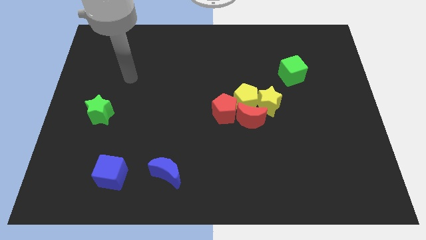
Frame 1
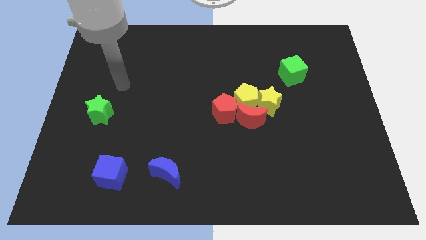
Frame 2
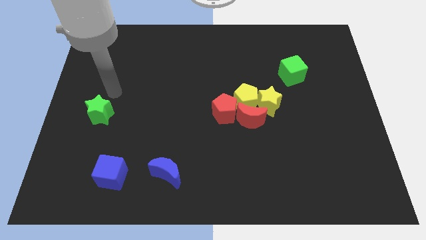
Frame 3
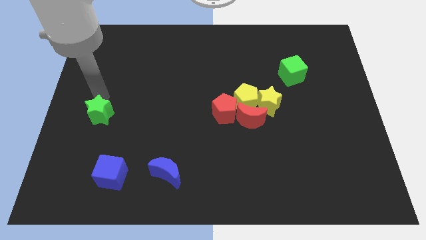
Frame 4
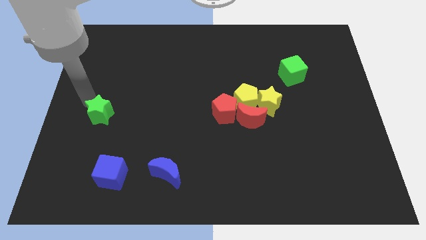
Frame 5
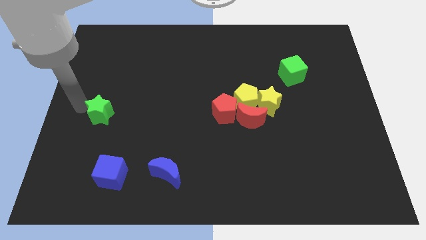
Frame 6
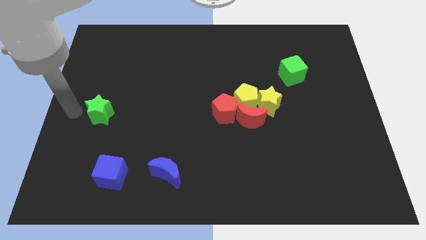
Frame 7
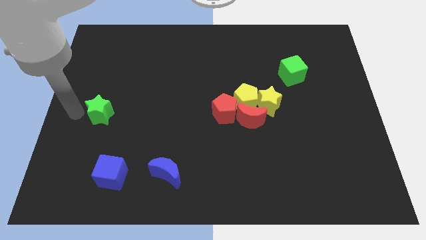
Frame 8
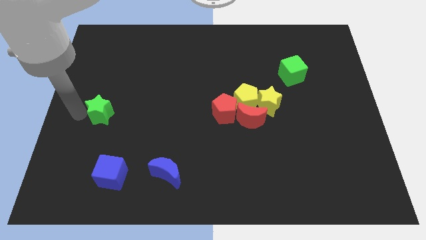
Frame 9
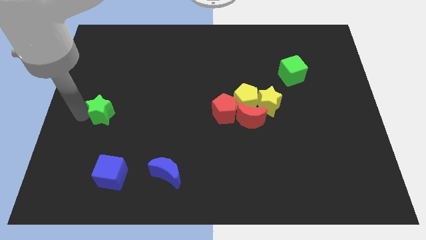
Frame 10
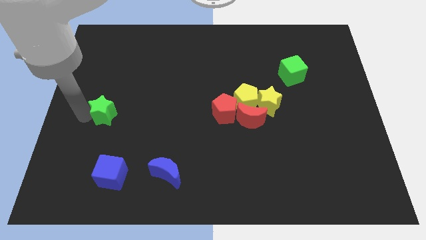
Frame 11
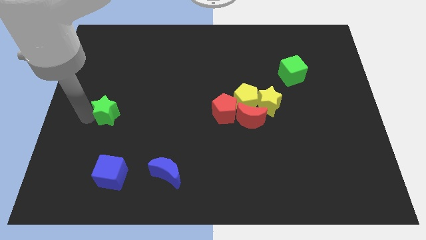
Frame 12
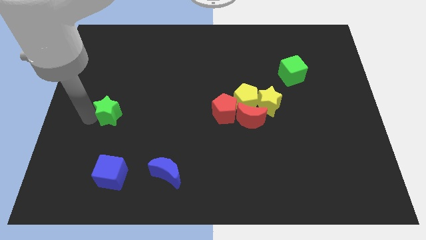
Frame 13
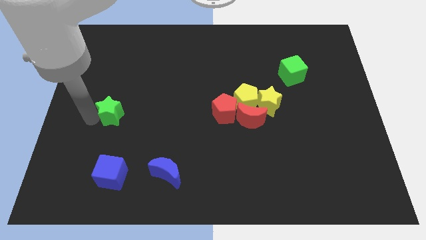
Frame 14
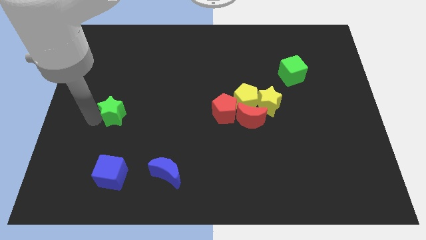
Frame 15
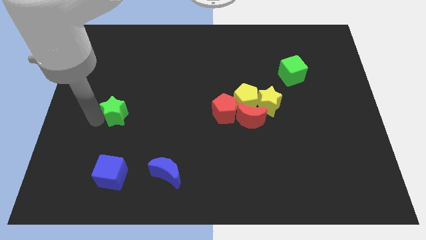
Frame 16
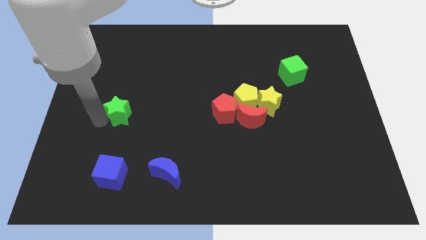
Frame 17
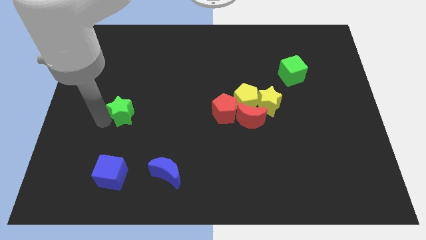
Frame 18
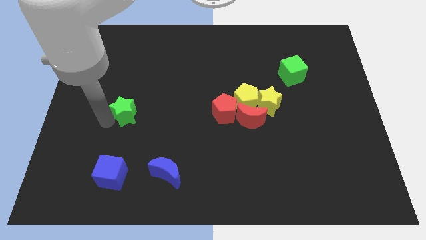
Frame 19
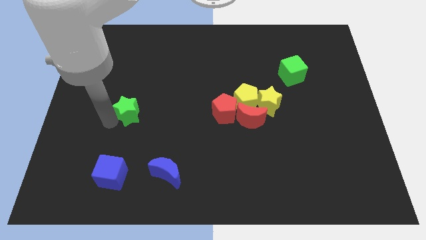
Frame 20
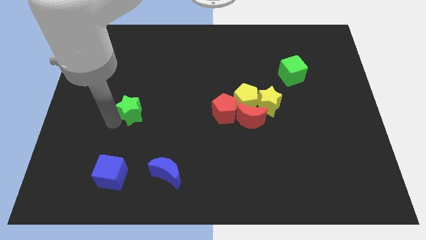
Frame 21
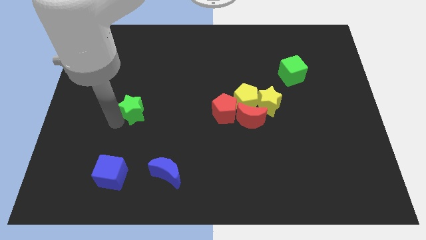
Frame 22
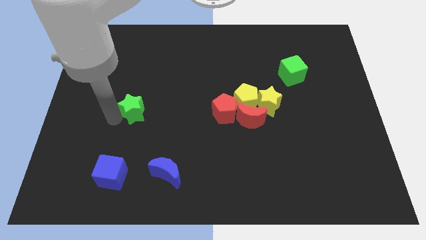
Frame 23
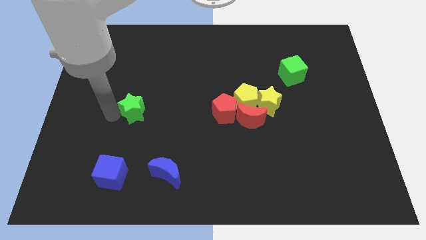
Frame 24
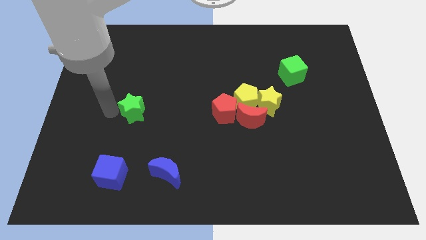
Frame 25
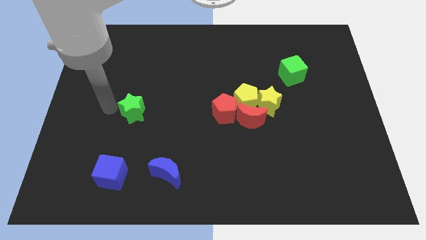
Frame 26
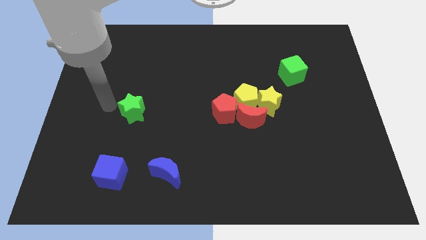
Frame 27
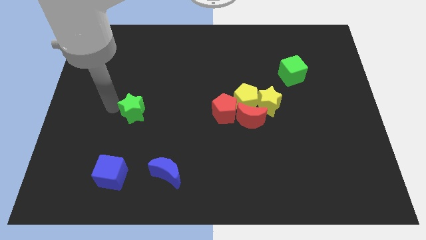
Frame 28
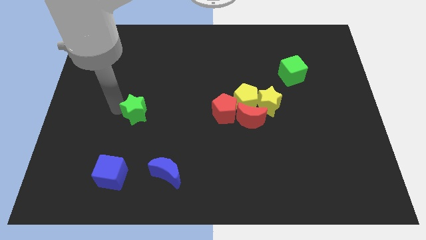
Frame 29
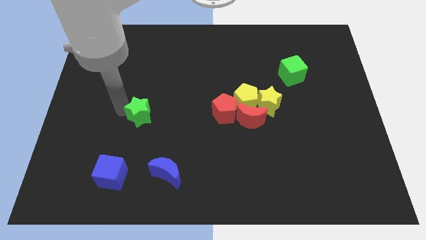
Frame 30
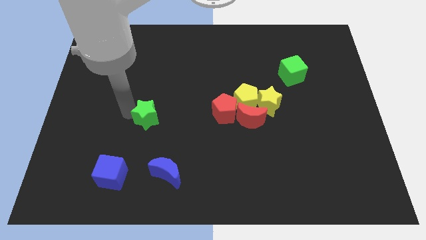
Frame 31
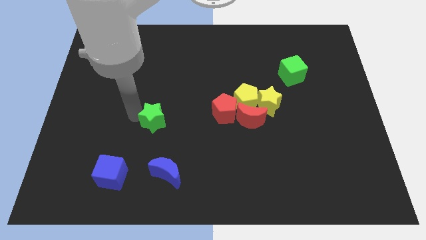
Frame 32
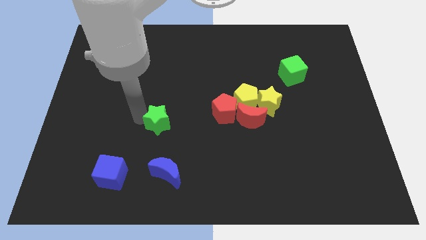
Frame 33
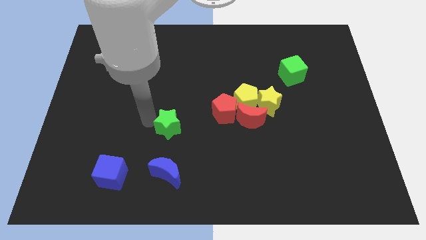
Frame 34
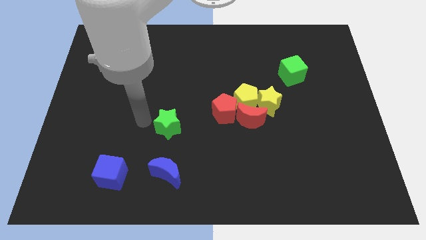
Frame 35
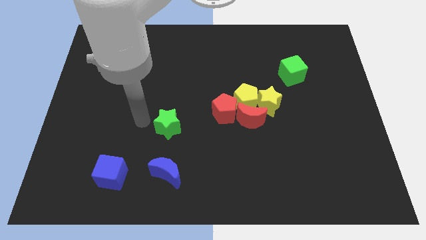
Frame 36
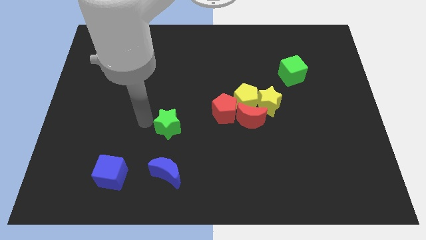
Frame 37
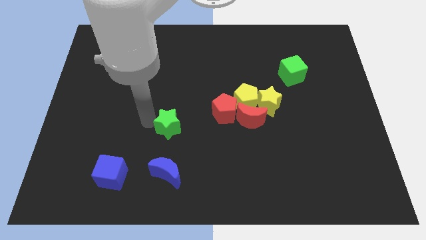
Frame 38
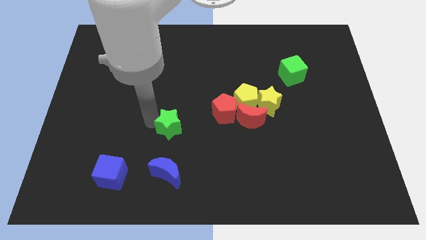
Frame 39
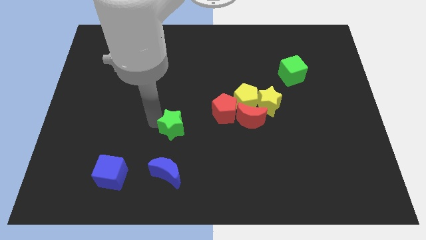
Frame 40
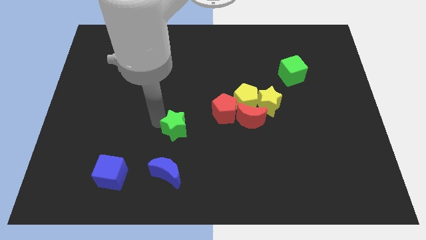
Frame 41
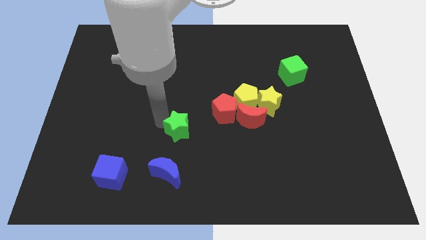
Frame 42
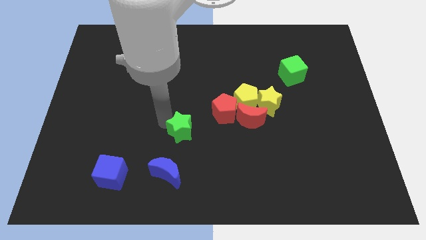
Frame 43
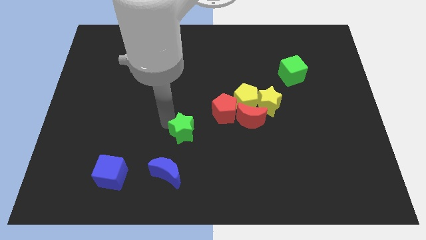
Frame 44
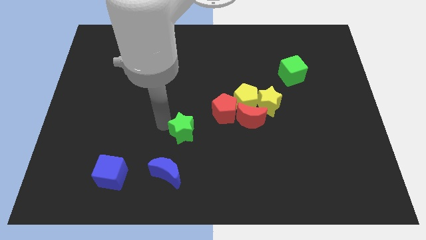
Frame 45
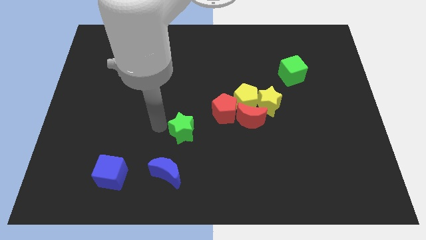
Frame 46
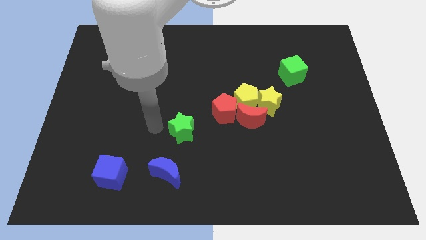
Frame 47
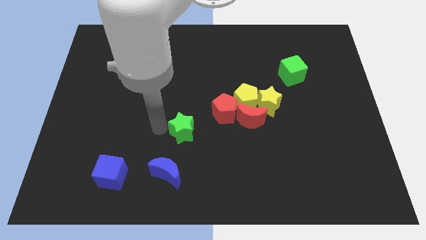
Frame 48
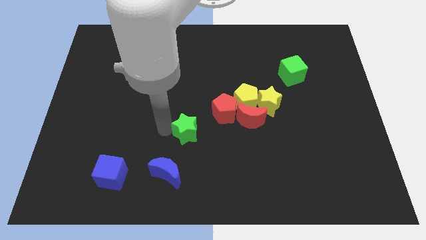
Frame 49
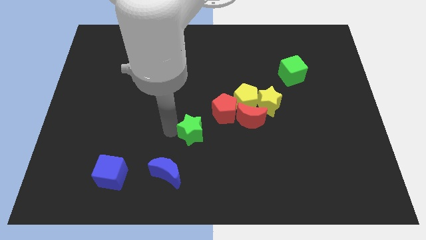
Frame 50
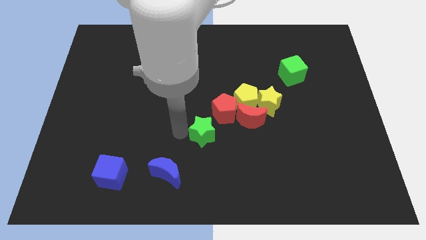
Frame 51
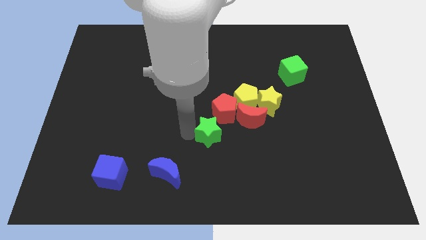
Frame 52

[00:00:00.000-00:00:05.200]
put the green star diagonally down and to the left of the red moon

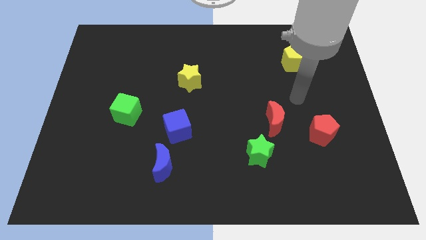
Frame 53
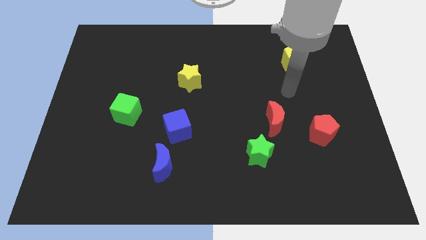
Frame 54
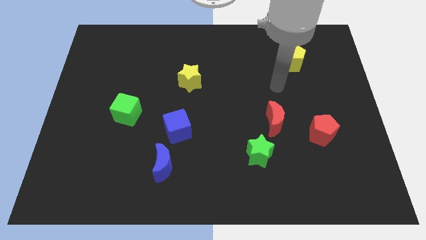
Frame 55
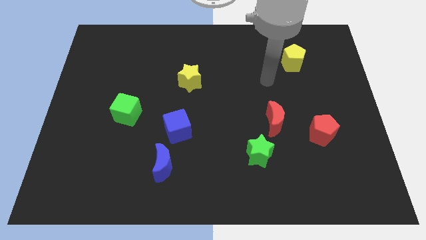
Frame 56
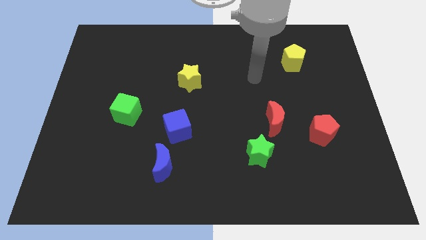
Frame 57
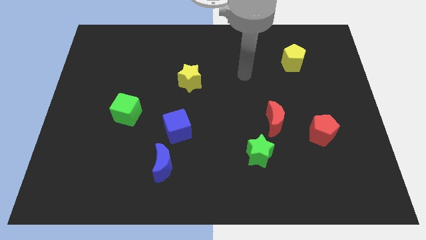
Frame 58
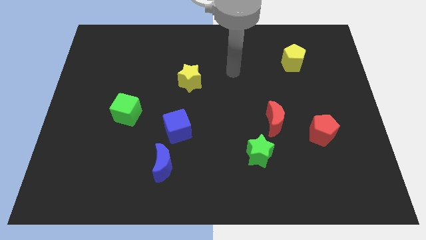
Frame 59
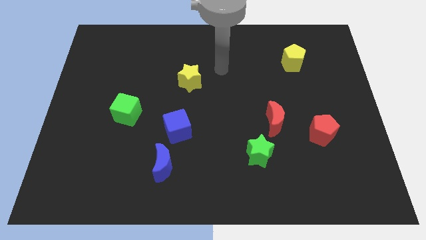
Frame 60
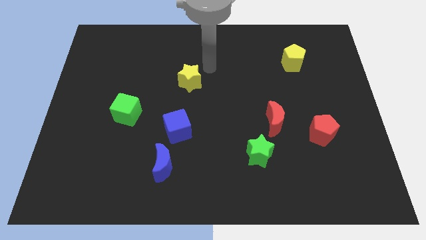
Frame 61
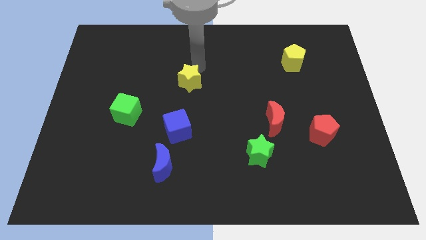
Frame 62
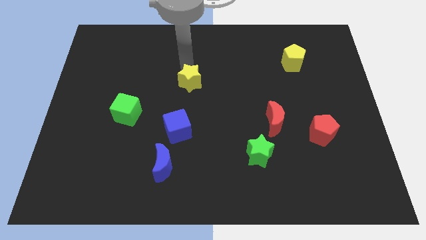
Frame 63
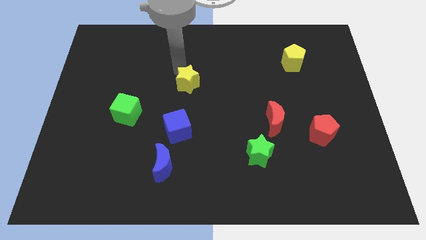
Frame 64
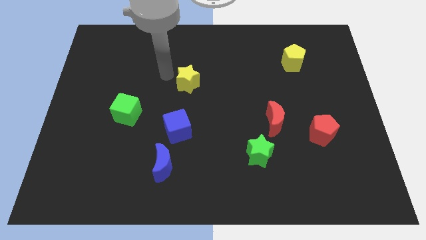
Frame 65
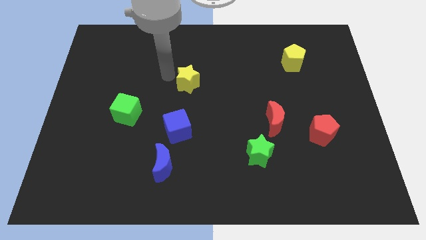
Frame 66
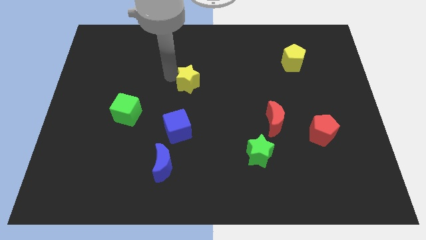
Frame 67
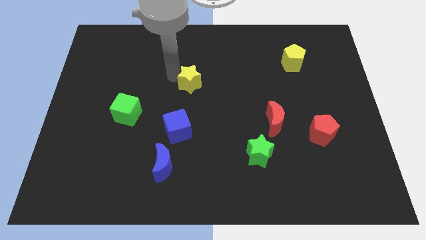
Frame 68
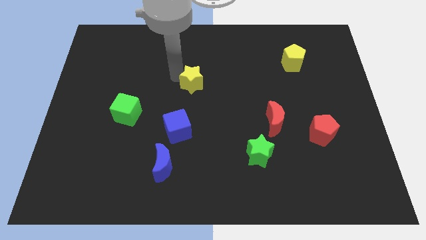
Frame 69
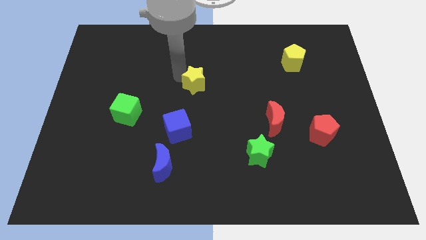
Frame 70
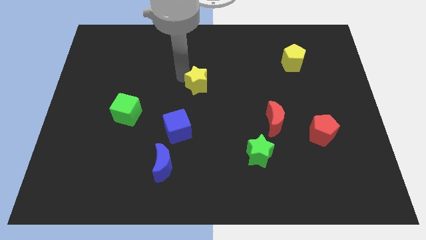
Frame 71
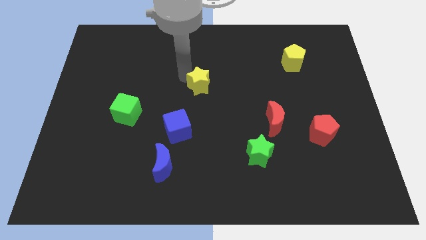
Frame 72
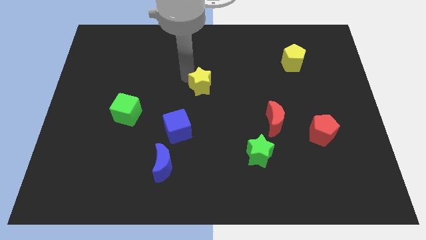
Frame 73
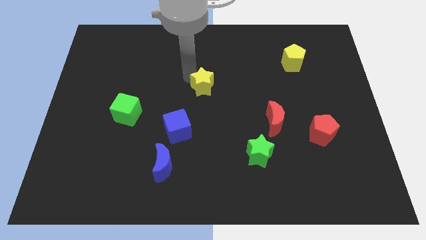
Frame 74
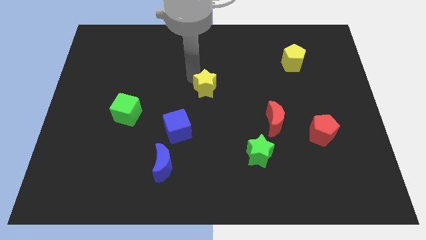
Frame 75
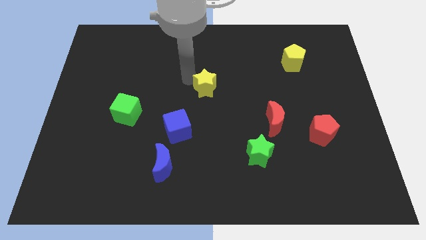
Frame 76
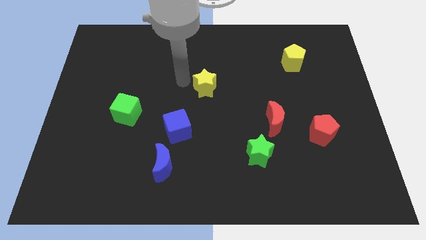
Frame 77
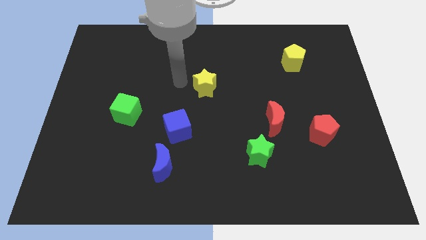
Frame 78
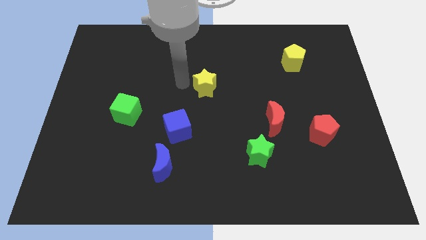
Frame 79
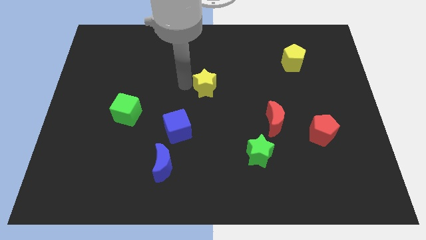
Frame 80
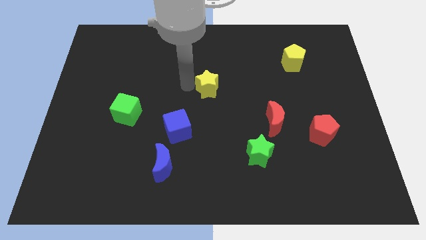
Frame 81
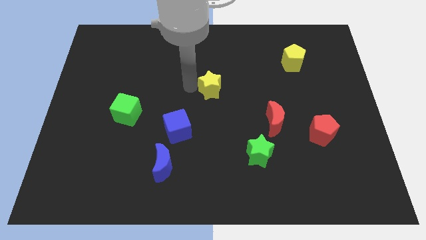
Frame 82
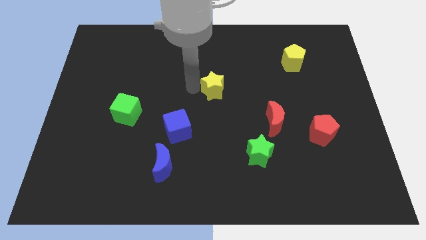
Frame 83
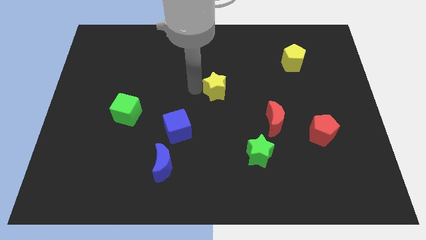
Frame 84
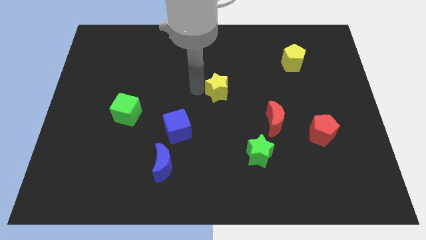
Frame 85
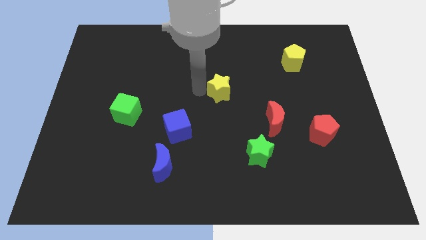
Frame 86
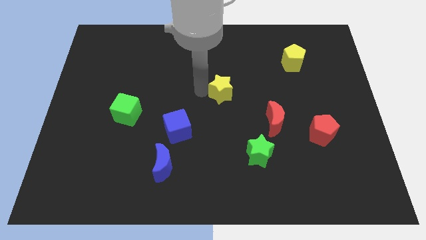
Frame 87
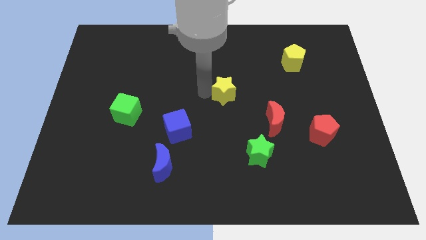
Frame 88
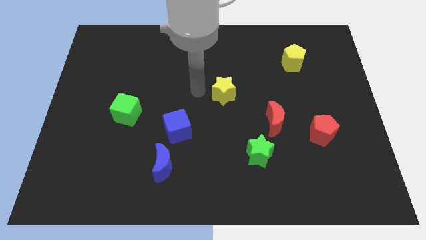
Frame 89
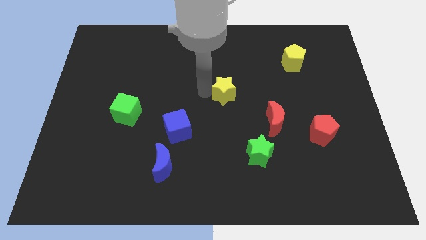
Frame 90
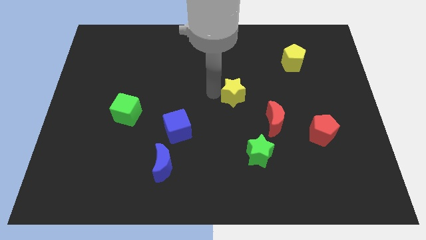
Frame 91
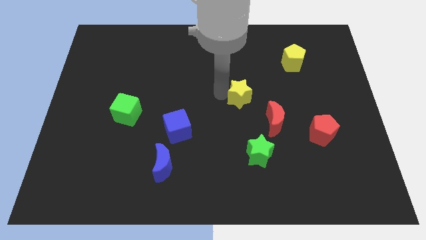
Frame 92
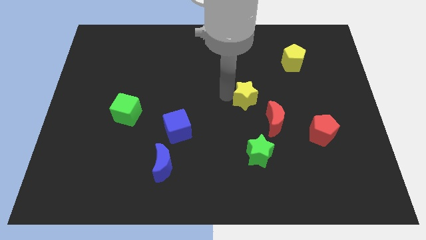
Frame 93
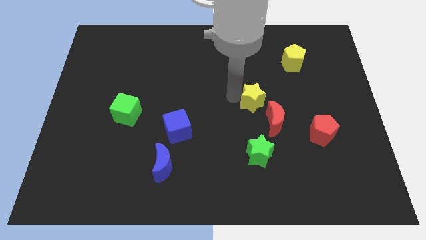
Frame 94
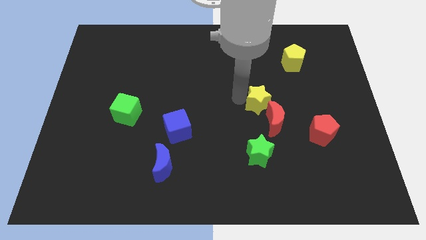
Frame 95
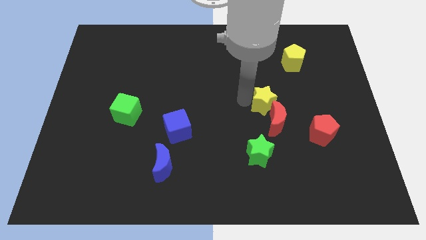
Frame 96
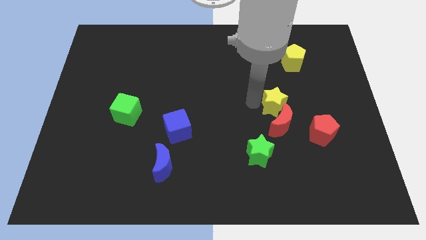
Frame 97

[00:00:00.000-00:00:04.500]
put the yellow star diagonally up and to the right of the red moon
